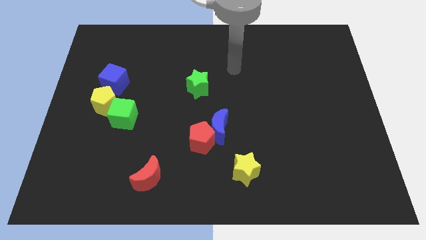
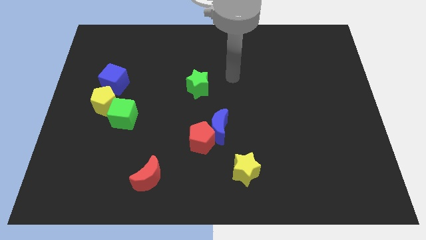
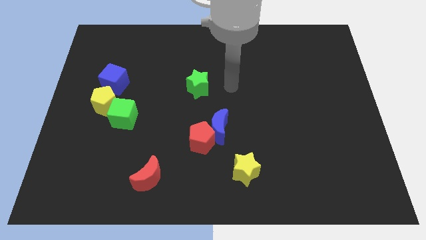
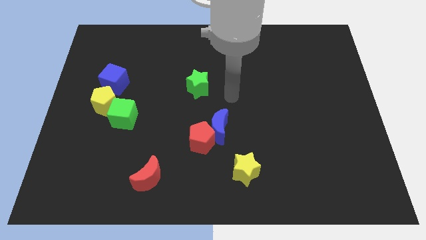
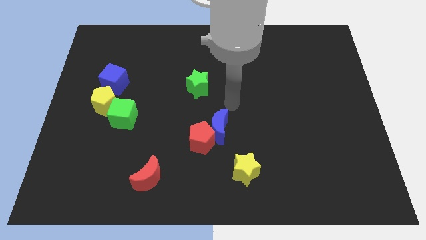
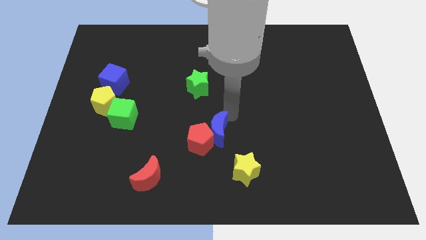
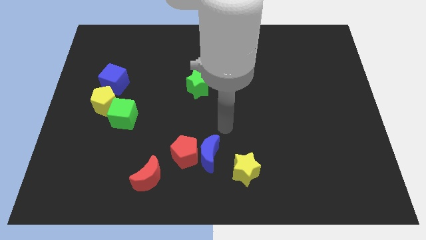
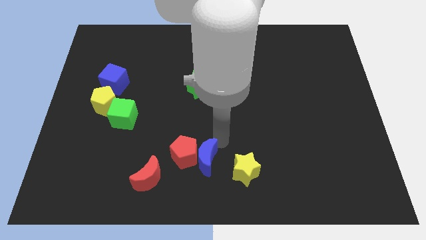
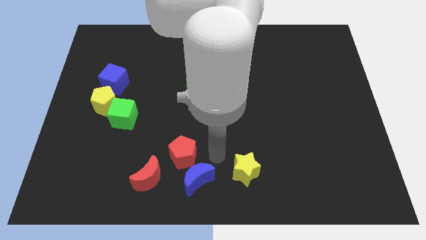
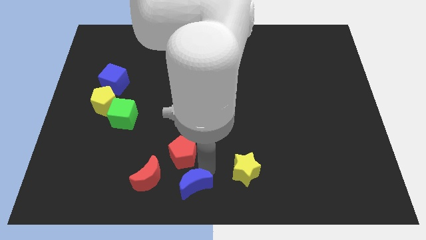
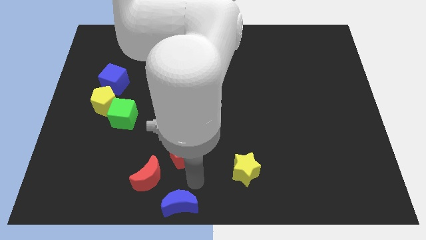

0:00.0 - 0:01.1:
separate the red pentagon from the blue moon

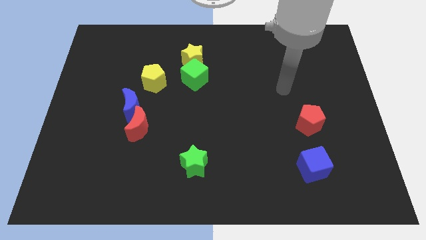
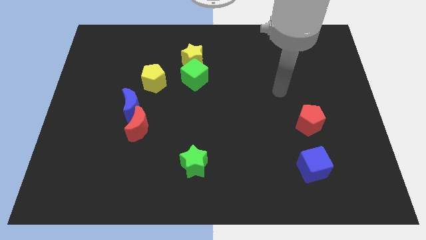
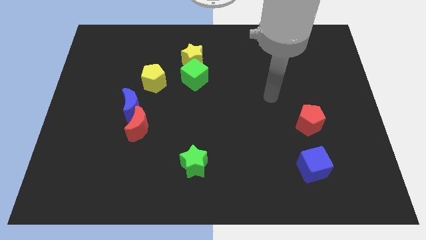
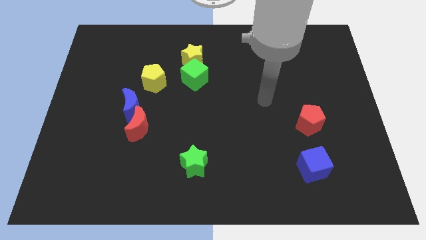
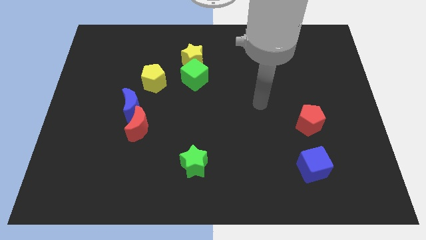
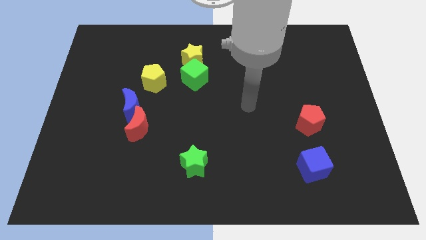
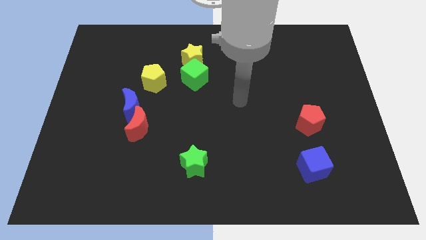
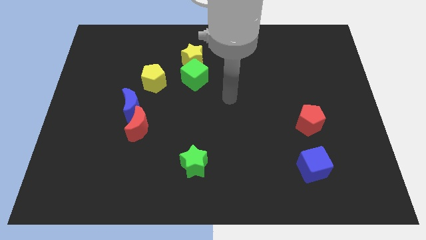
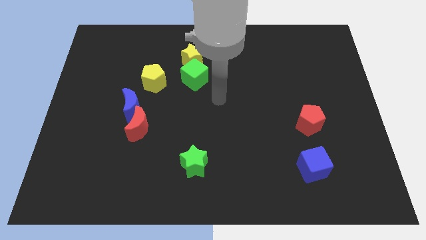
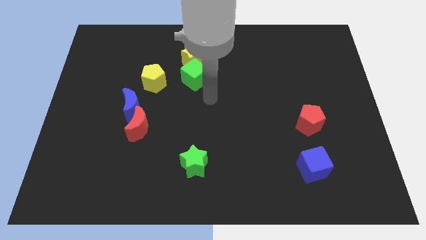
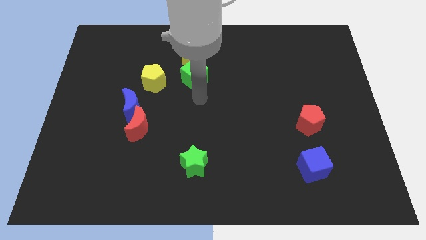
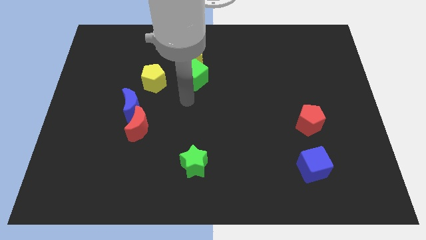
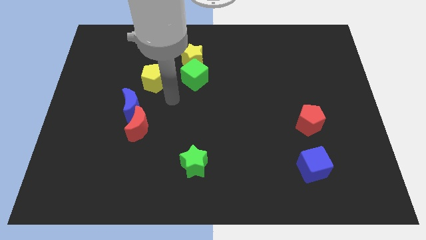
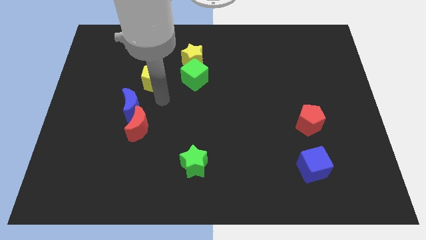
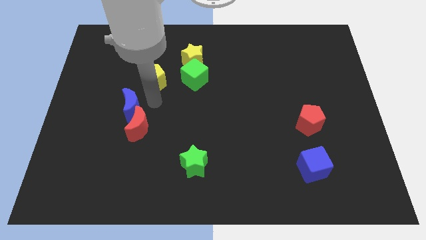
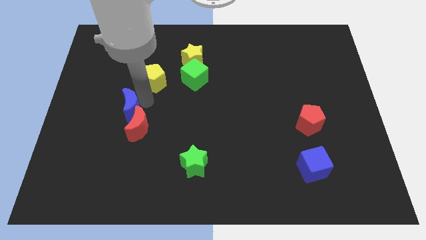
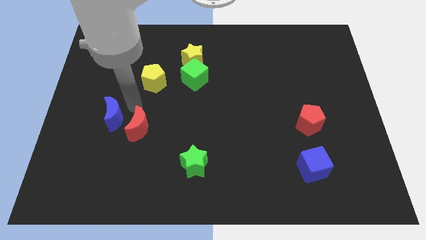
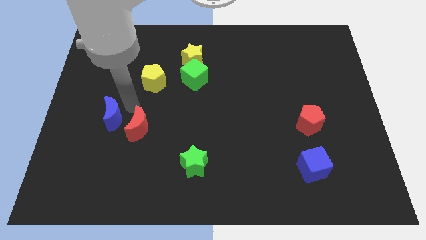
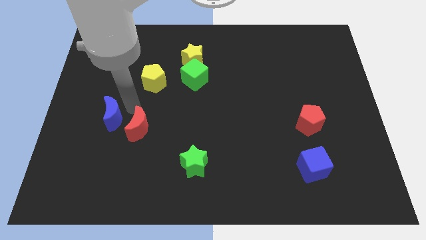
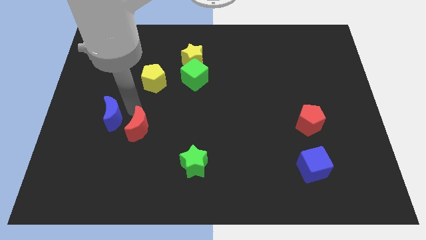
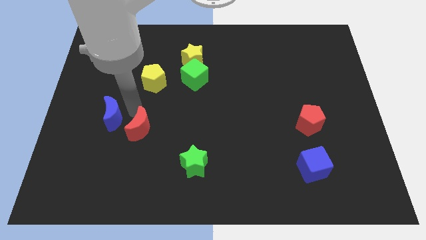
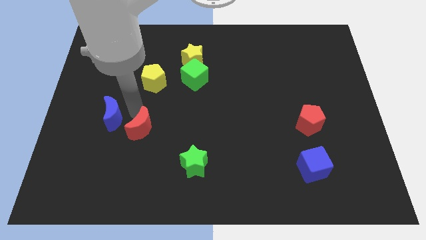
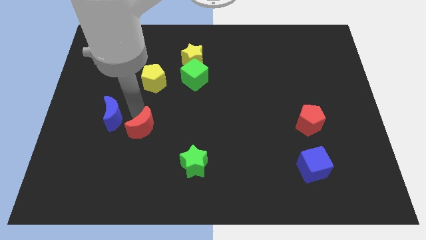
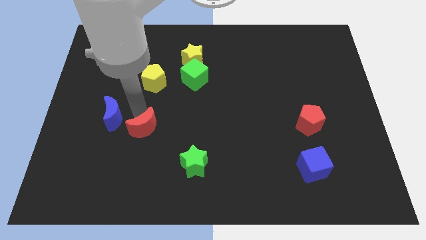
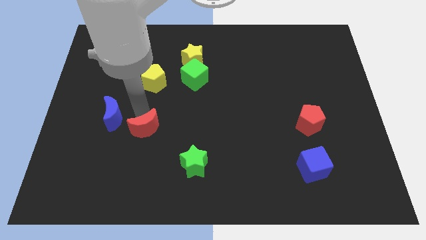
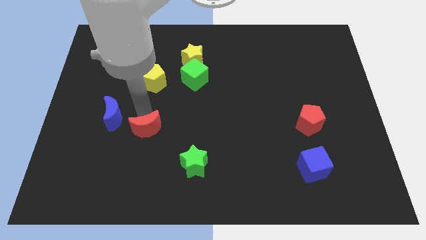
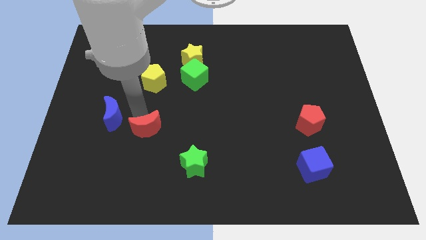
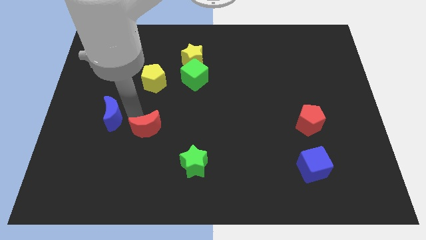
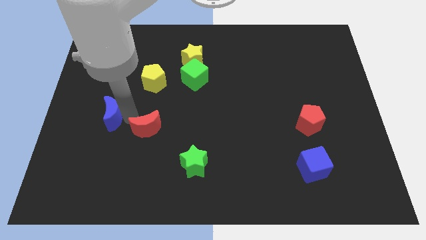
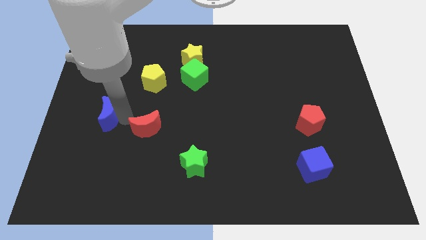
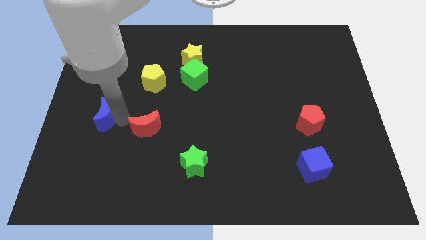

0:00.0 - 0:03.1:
separate the red moon from the blue moon

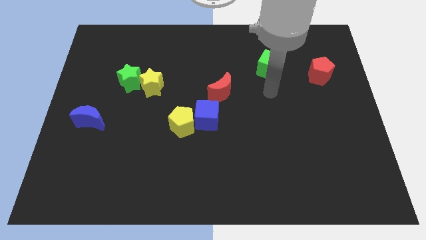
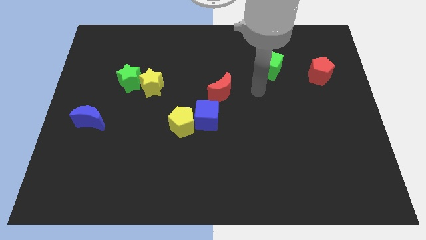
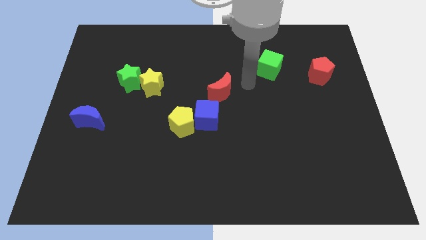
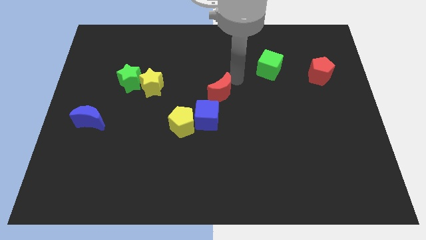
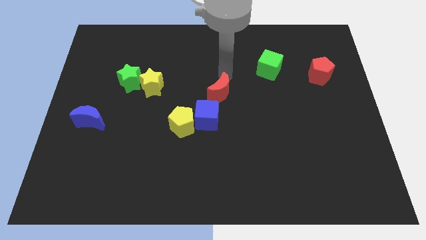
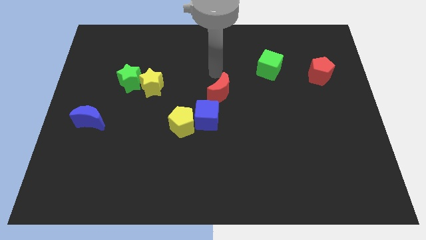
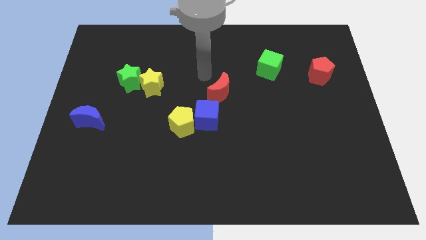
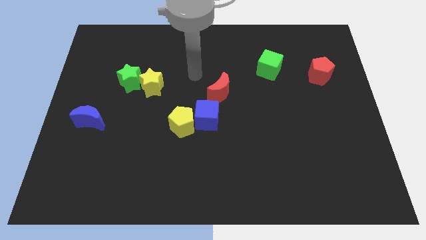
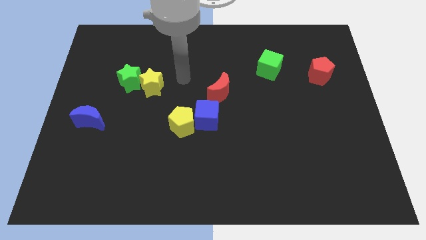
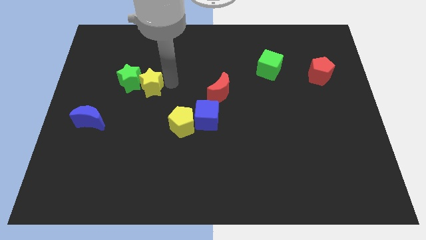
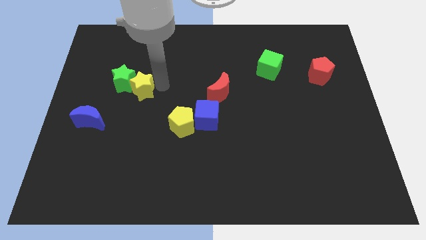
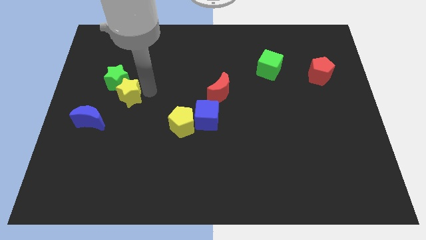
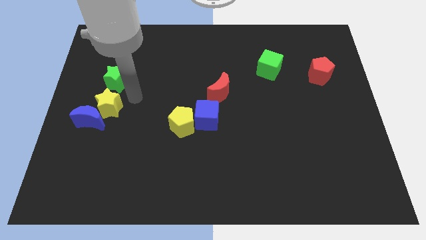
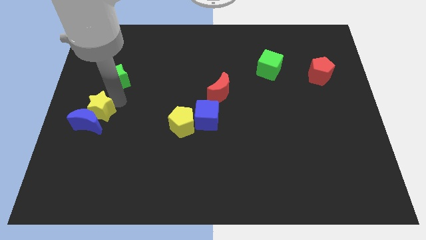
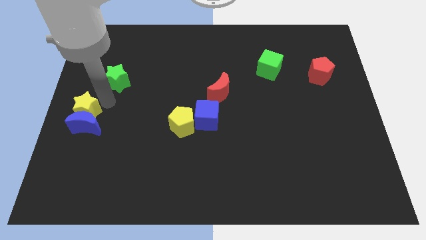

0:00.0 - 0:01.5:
move the green star away from the yellow star

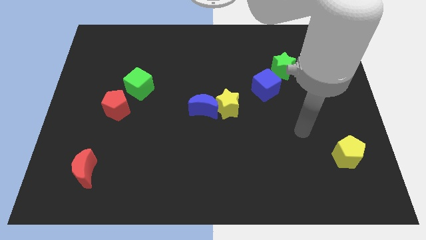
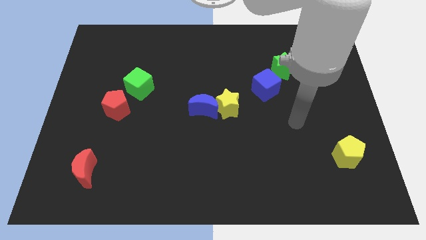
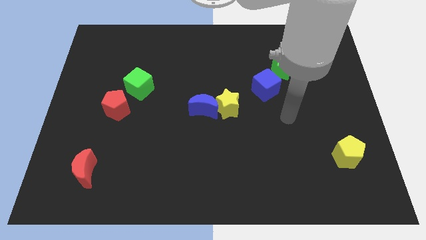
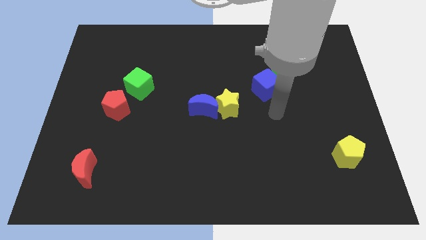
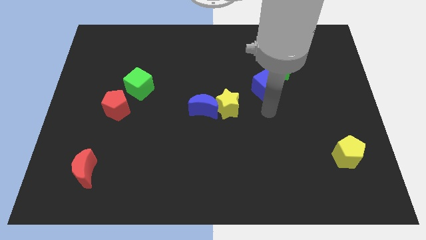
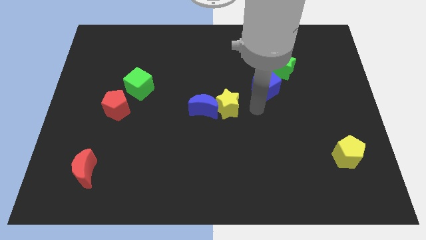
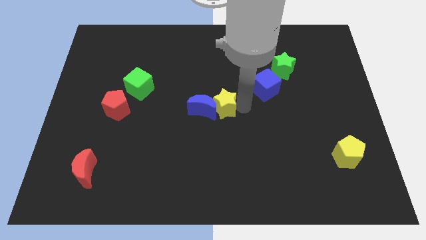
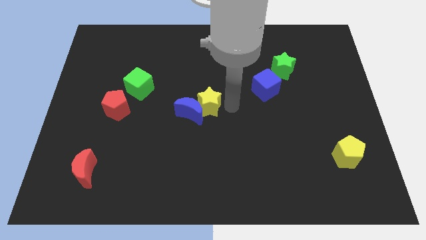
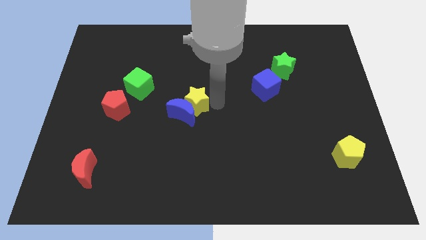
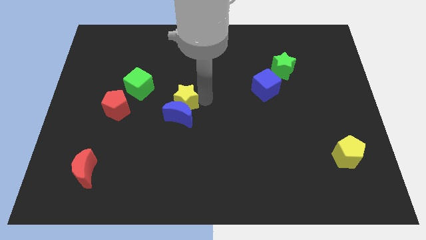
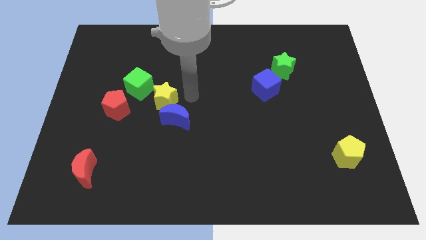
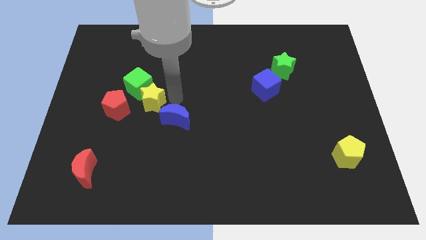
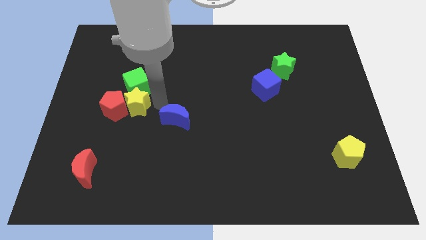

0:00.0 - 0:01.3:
move the blue moon away from the yellow star

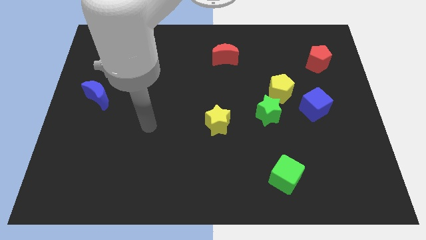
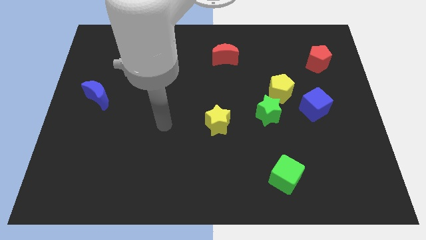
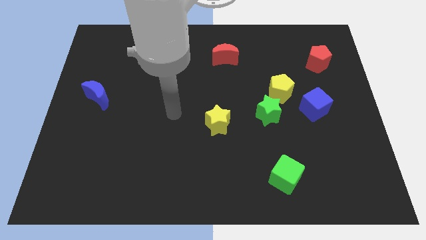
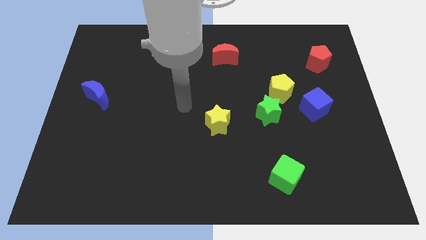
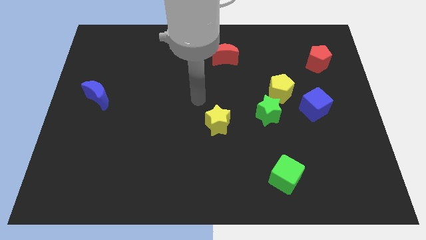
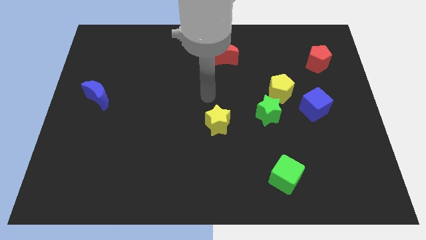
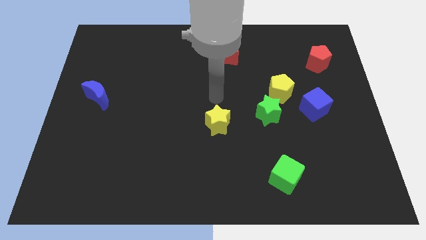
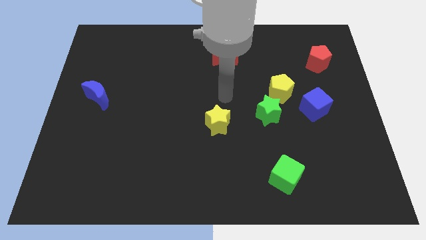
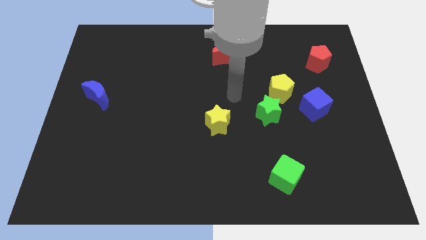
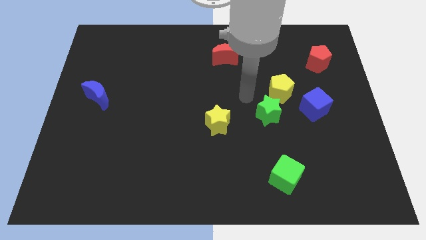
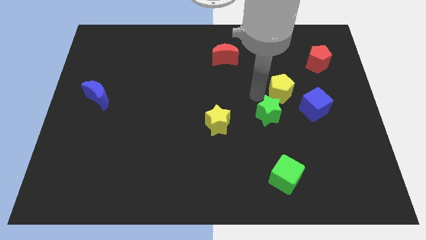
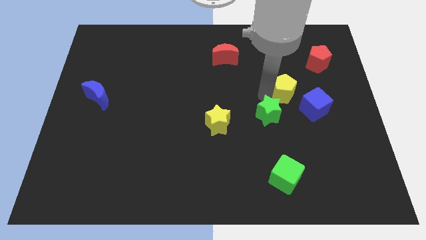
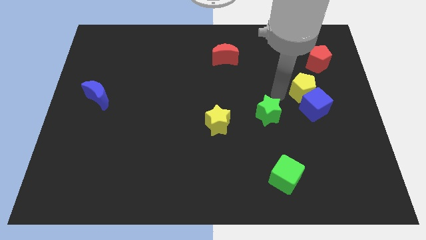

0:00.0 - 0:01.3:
separate the green star from the yellow pentagon

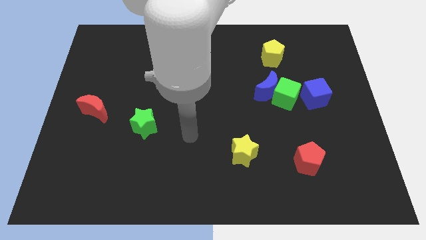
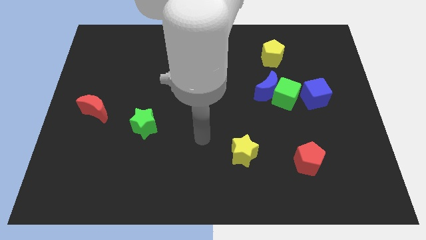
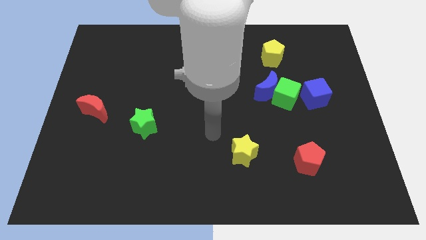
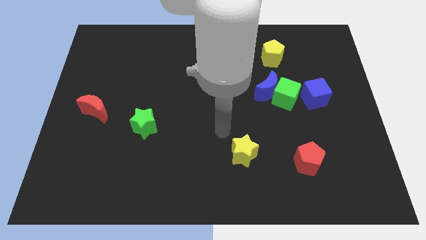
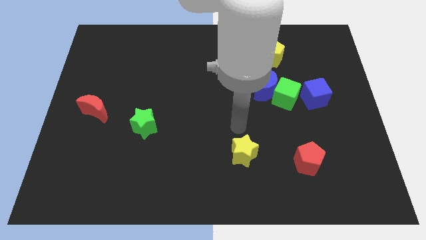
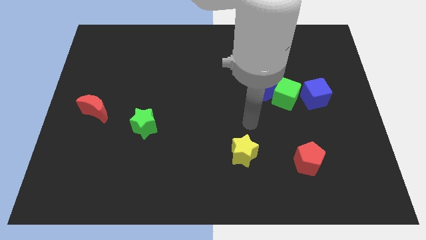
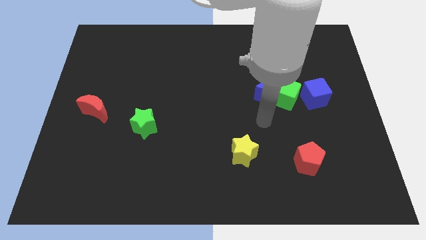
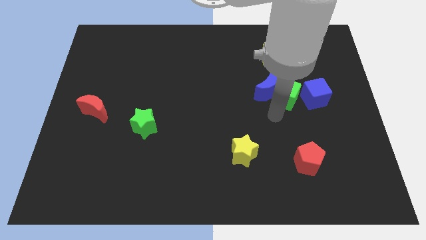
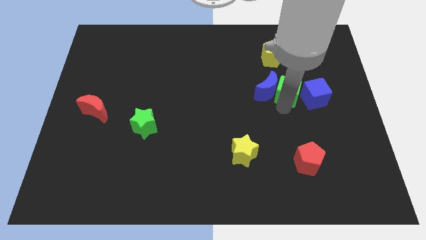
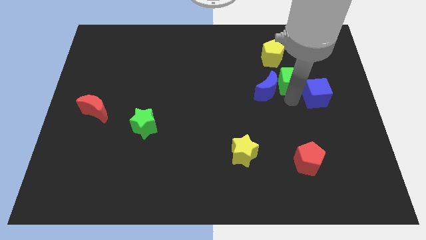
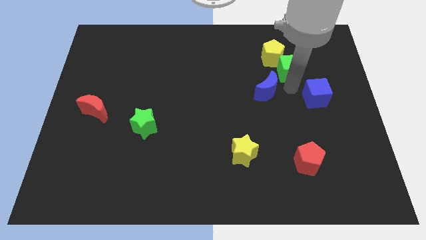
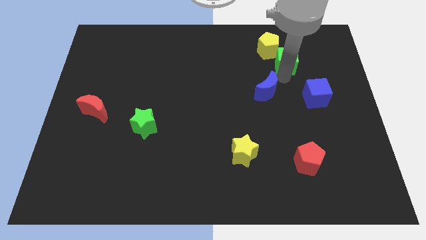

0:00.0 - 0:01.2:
separate the blue moon from the green cube
